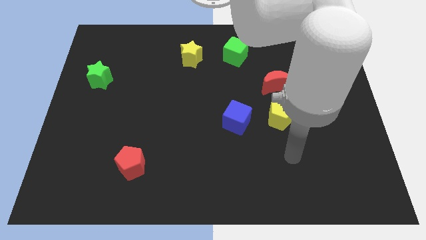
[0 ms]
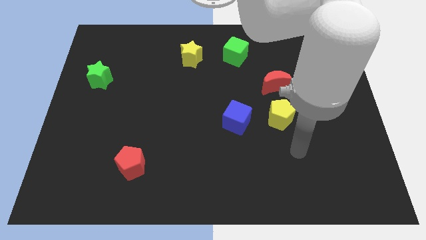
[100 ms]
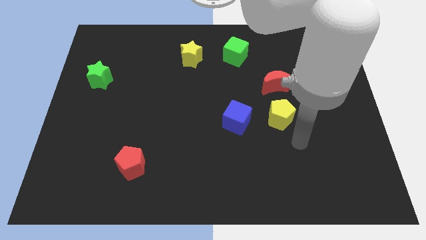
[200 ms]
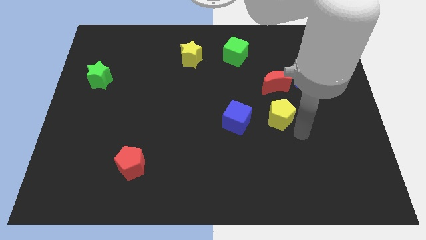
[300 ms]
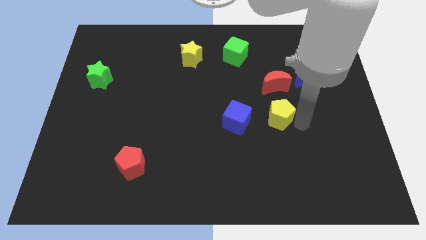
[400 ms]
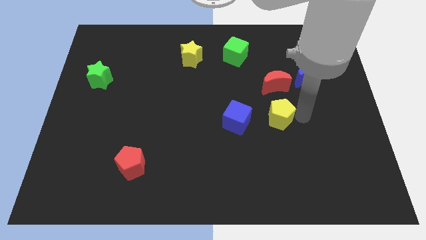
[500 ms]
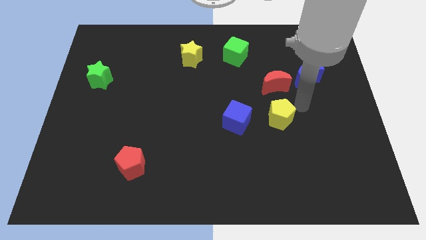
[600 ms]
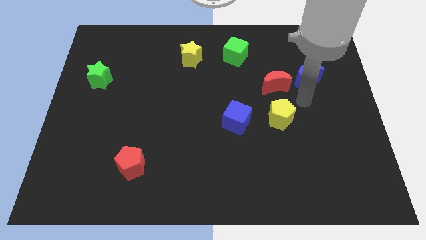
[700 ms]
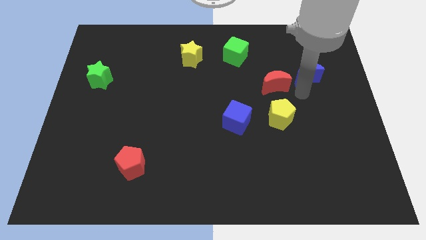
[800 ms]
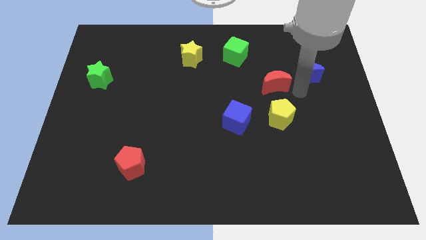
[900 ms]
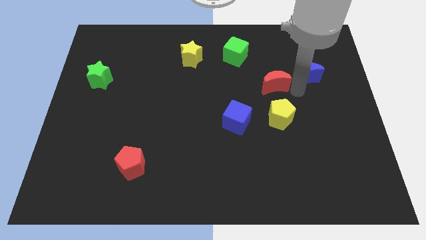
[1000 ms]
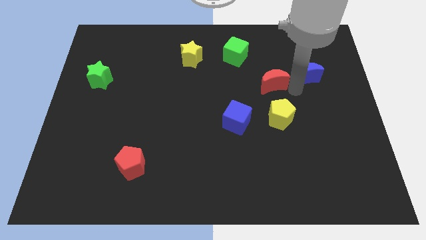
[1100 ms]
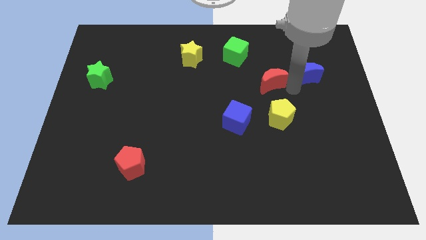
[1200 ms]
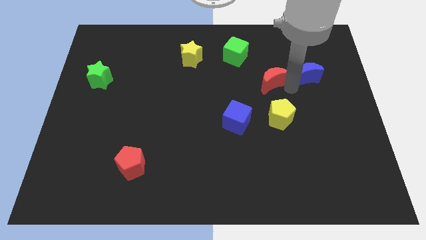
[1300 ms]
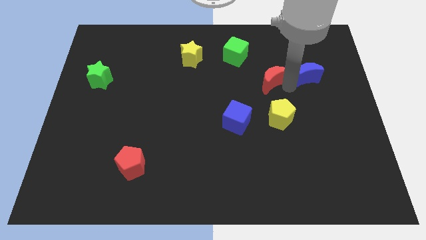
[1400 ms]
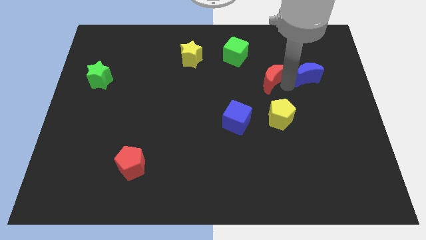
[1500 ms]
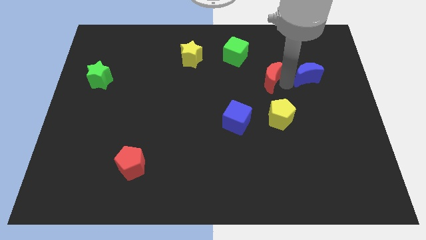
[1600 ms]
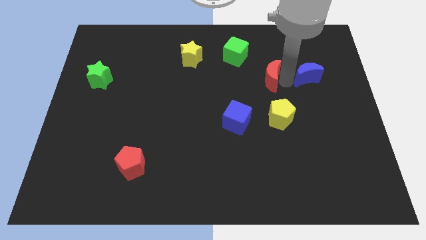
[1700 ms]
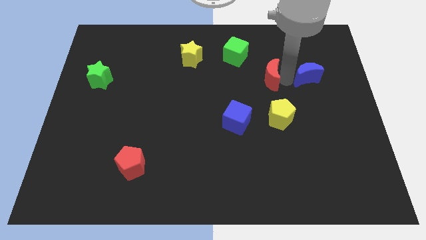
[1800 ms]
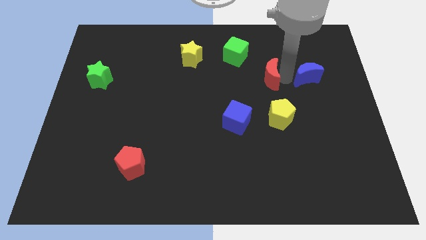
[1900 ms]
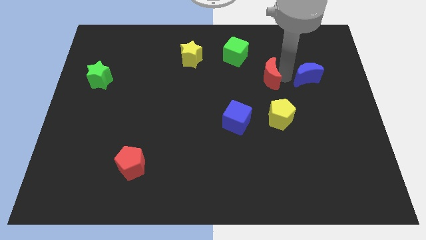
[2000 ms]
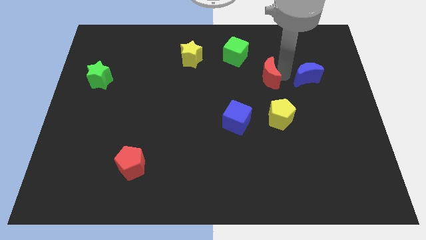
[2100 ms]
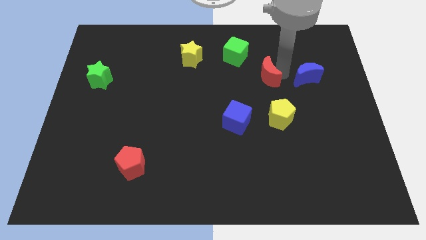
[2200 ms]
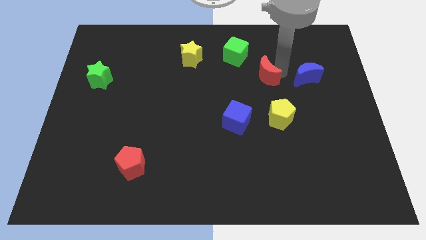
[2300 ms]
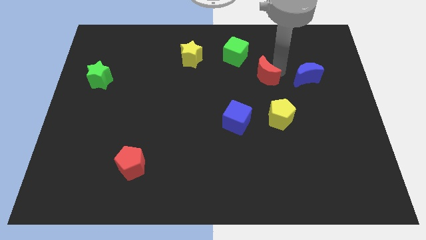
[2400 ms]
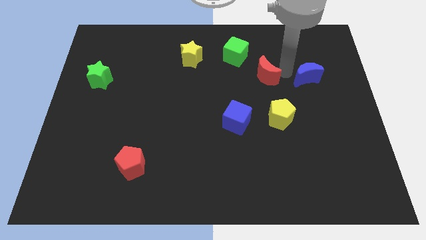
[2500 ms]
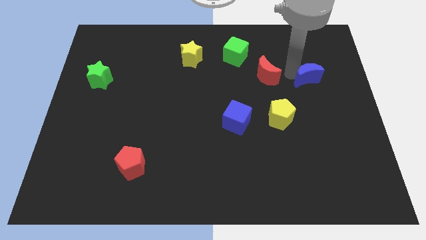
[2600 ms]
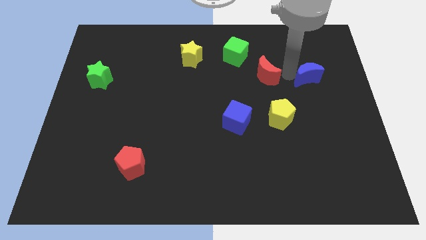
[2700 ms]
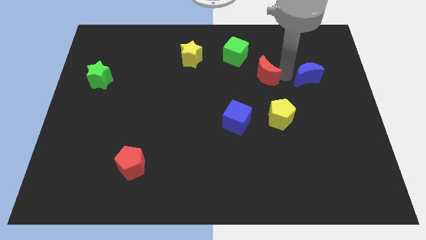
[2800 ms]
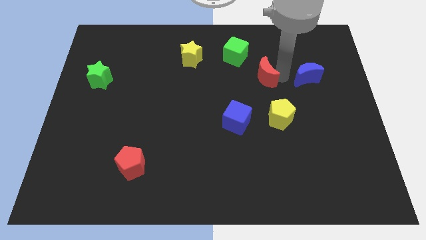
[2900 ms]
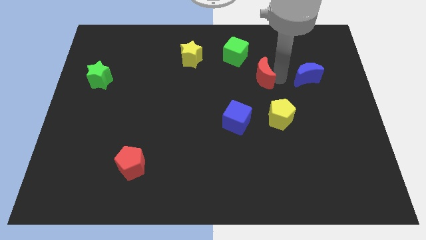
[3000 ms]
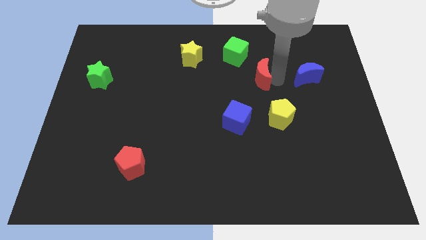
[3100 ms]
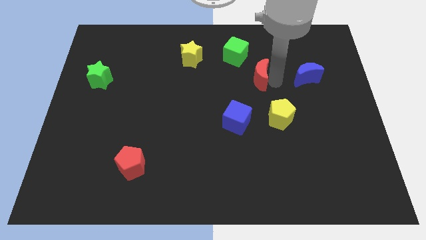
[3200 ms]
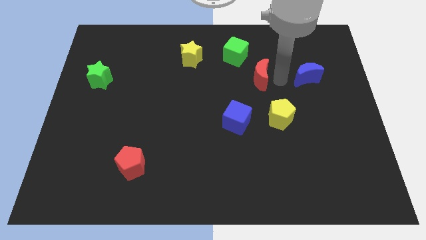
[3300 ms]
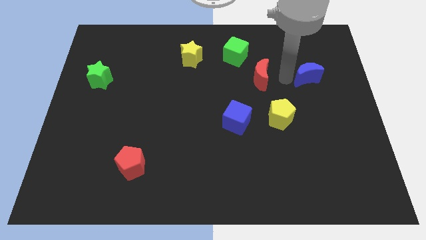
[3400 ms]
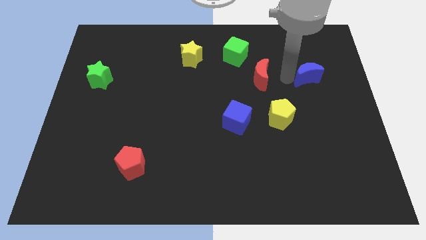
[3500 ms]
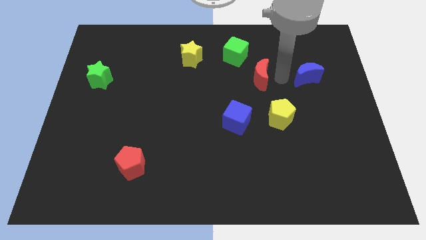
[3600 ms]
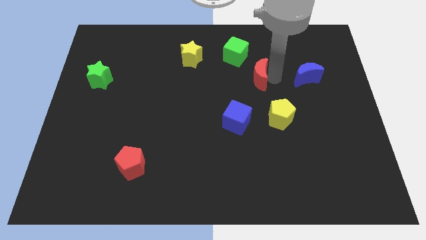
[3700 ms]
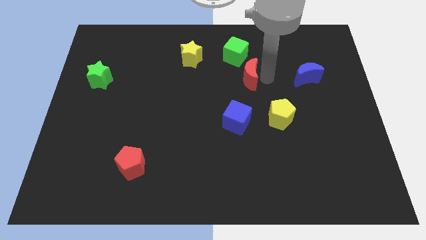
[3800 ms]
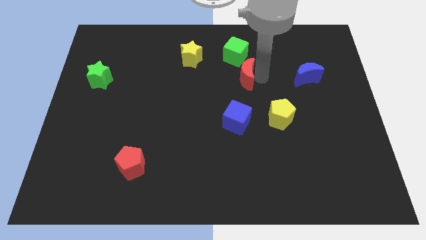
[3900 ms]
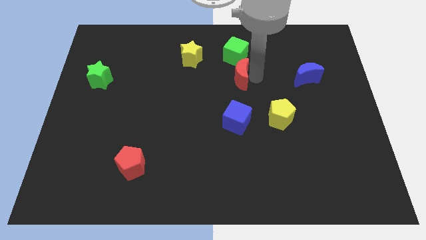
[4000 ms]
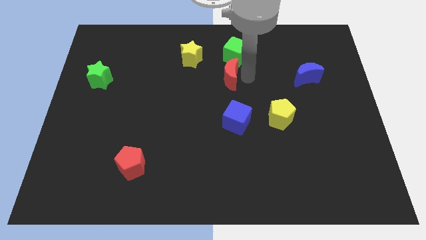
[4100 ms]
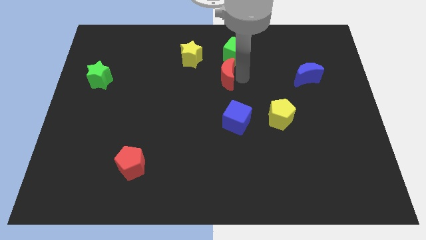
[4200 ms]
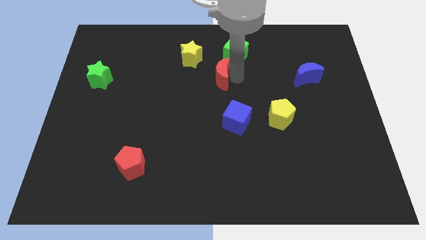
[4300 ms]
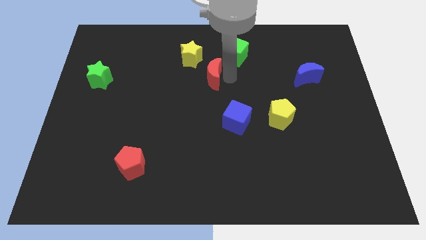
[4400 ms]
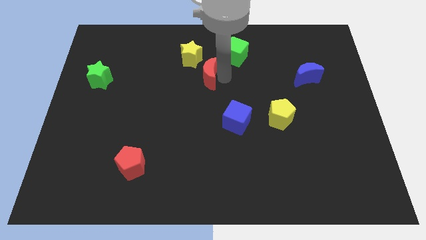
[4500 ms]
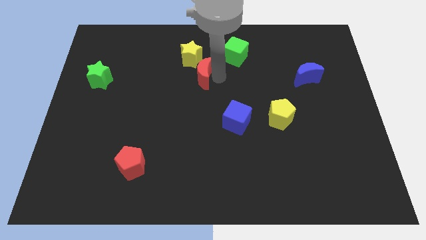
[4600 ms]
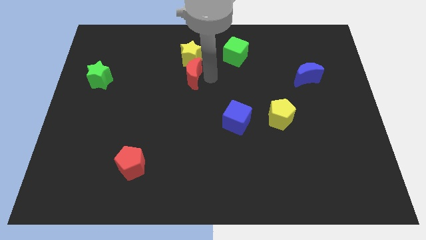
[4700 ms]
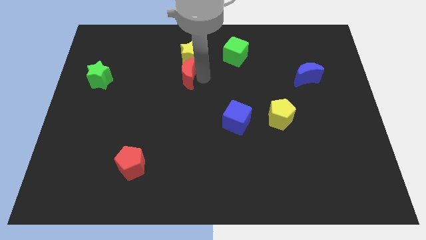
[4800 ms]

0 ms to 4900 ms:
put the red moon diagonally down and to the left of the yellow star
